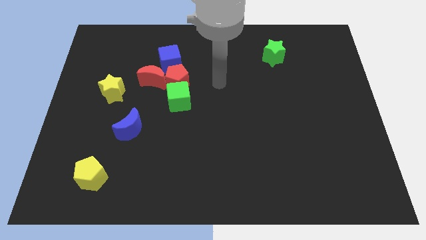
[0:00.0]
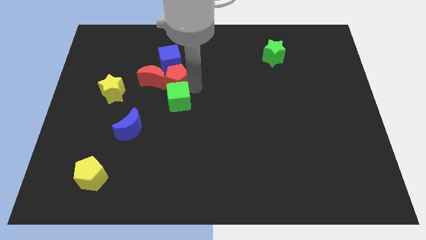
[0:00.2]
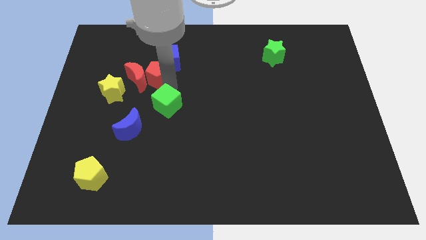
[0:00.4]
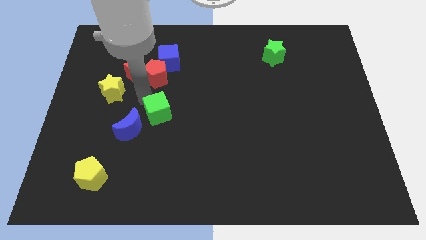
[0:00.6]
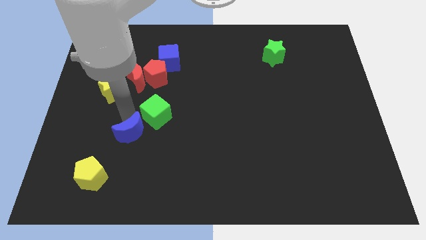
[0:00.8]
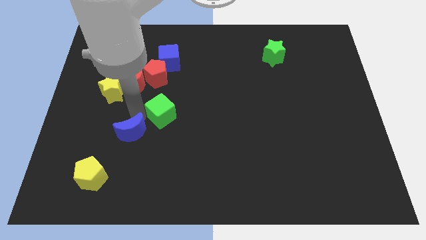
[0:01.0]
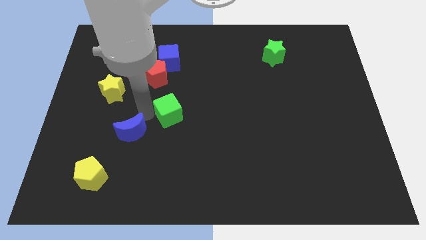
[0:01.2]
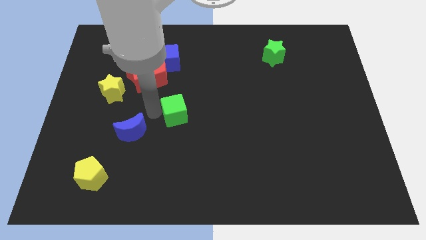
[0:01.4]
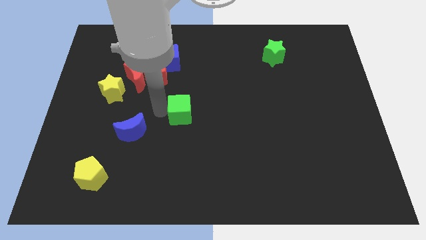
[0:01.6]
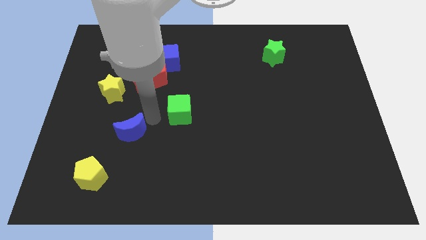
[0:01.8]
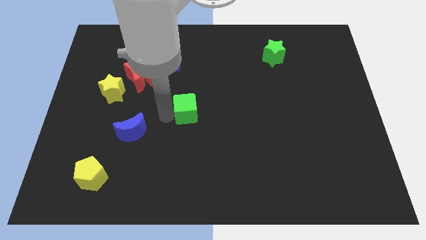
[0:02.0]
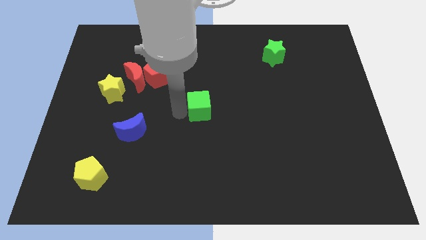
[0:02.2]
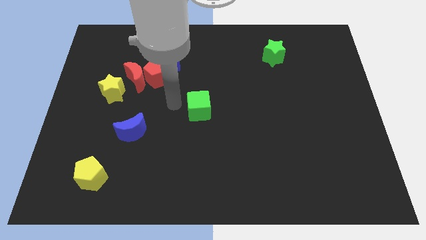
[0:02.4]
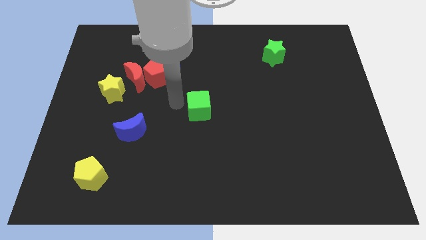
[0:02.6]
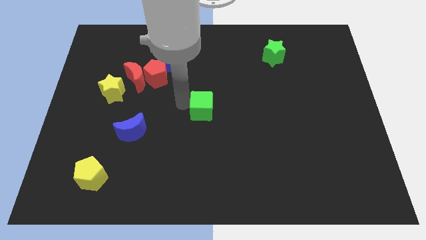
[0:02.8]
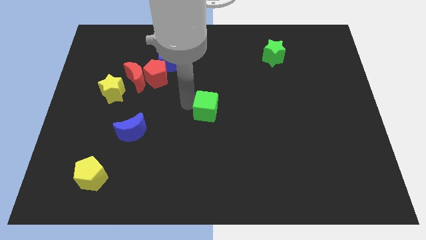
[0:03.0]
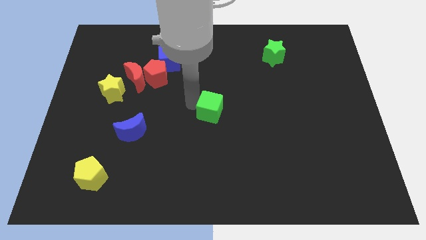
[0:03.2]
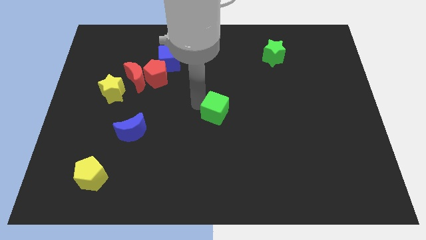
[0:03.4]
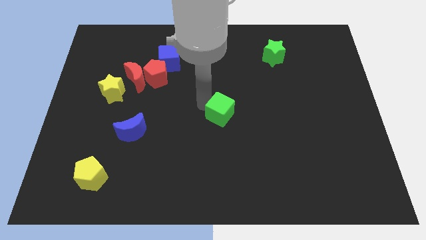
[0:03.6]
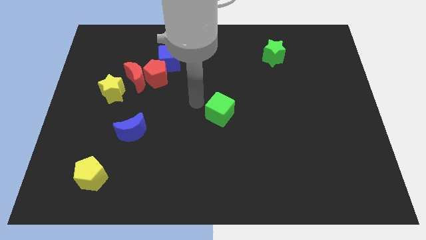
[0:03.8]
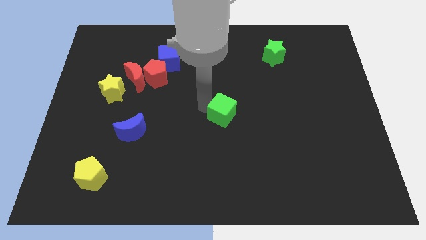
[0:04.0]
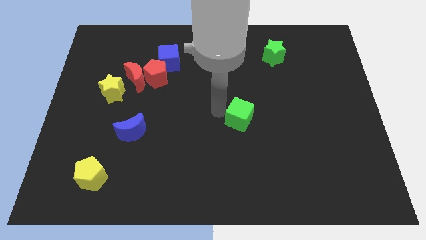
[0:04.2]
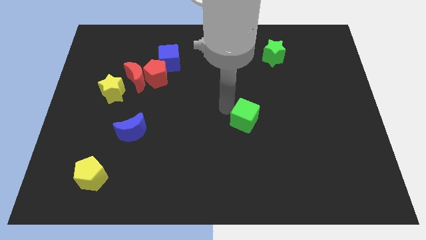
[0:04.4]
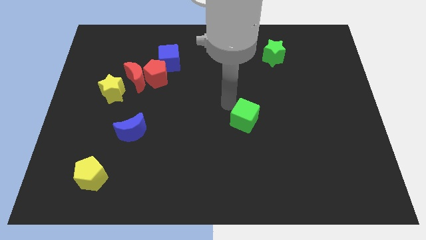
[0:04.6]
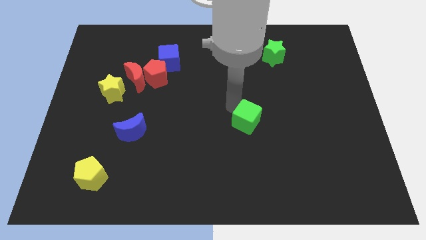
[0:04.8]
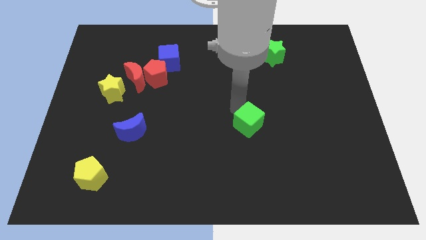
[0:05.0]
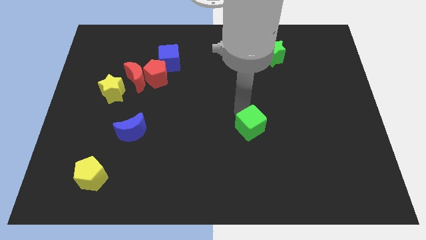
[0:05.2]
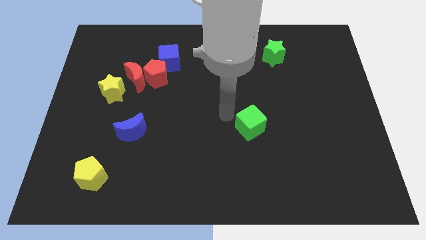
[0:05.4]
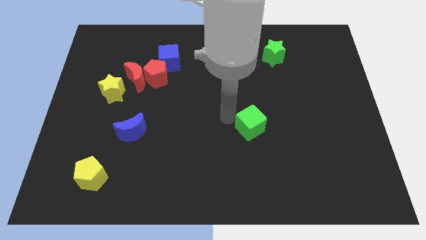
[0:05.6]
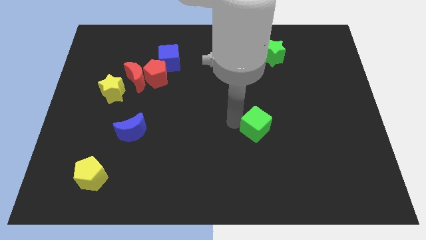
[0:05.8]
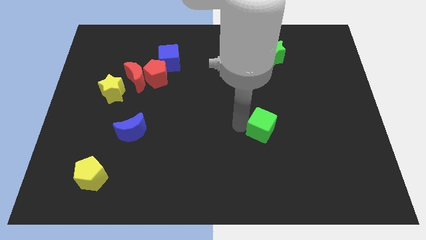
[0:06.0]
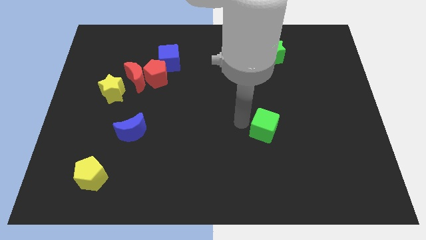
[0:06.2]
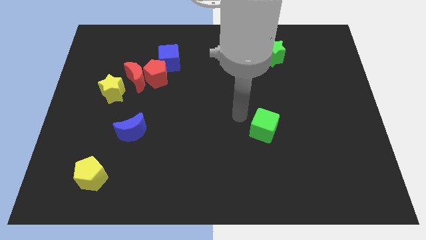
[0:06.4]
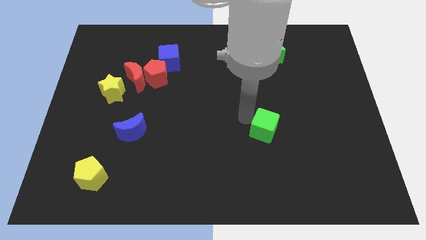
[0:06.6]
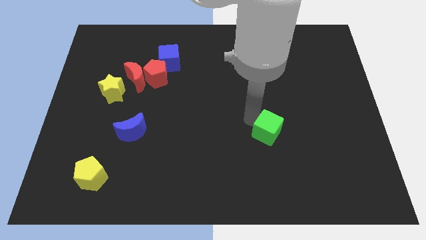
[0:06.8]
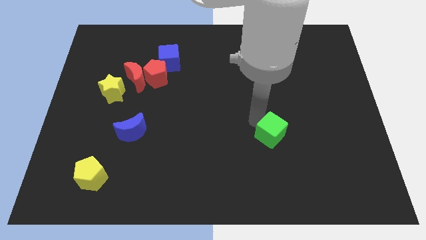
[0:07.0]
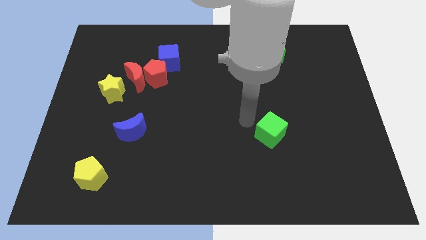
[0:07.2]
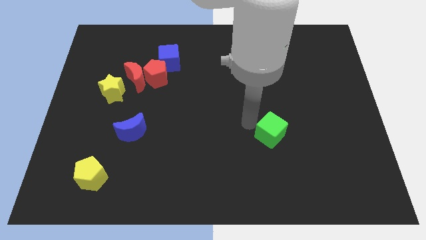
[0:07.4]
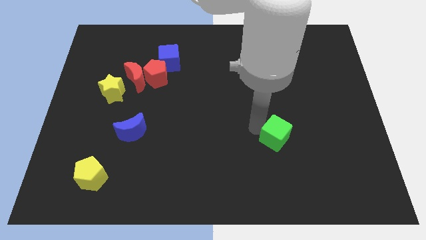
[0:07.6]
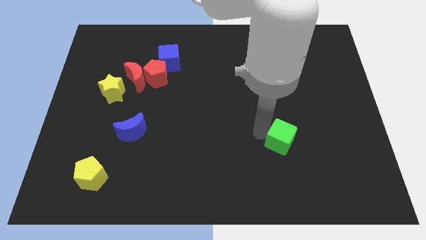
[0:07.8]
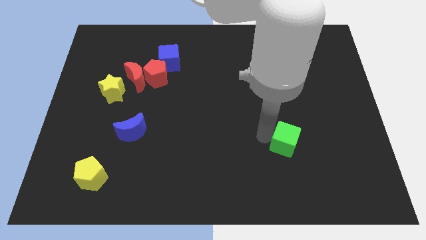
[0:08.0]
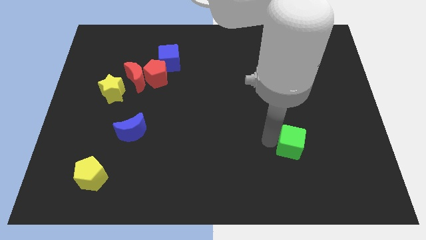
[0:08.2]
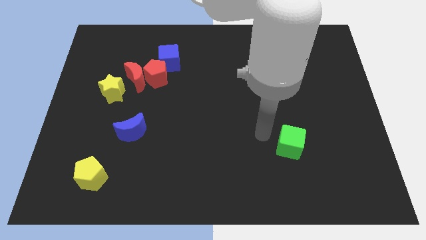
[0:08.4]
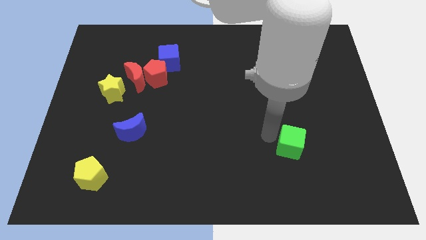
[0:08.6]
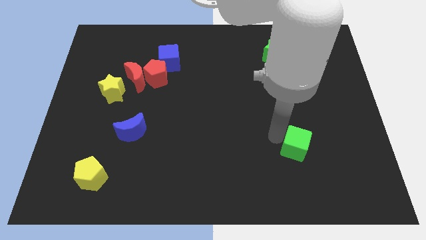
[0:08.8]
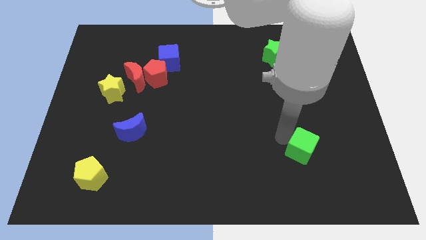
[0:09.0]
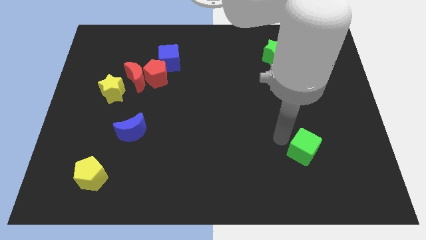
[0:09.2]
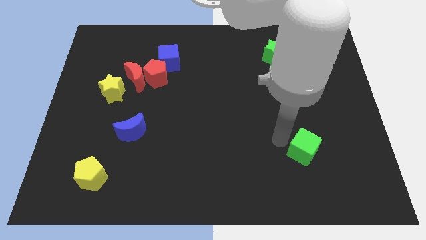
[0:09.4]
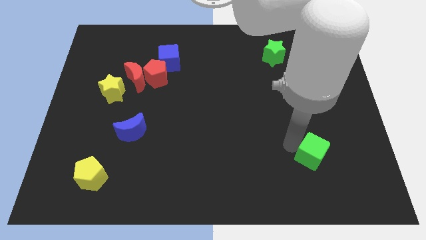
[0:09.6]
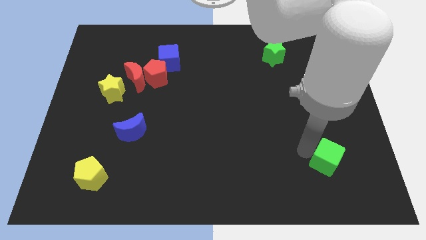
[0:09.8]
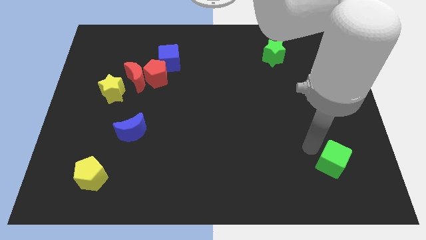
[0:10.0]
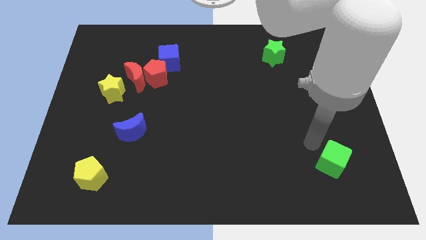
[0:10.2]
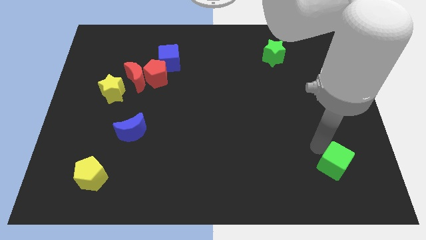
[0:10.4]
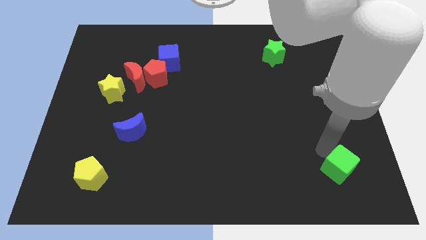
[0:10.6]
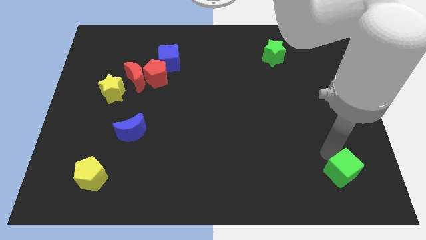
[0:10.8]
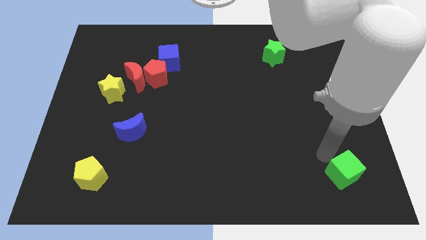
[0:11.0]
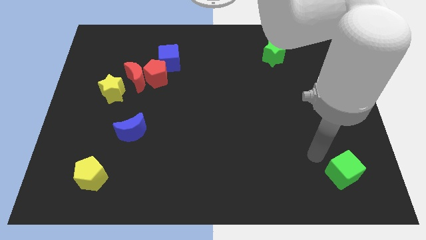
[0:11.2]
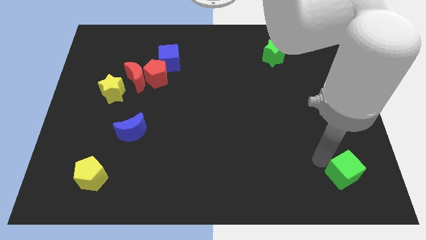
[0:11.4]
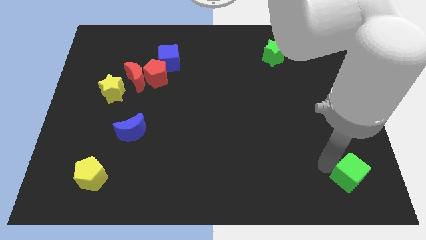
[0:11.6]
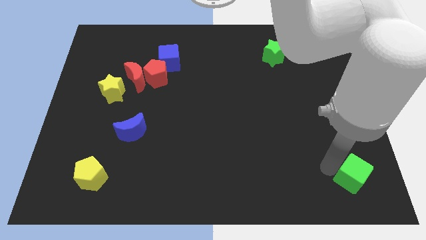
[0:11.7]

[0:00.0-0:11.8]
put the green cube to the bottom right corner
